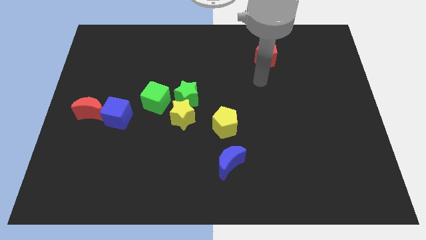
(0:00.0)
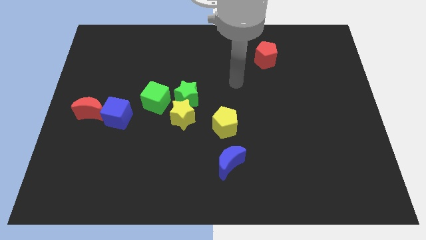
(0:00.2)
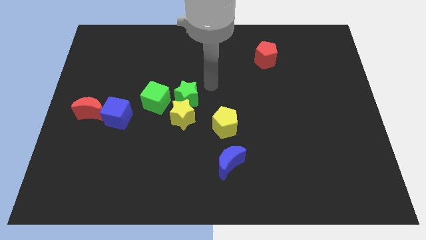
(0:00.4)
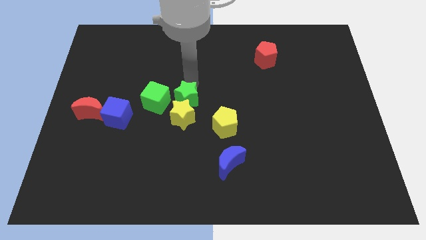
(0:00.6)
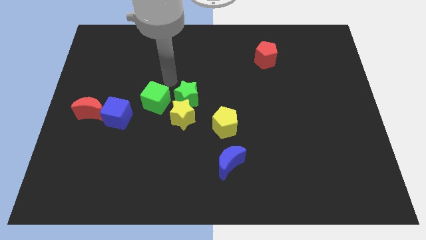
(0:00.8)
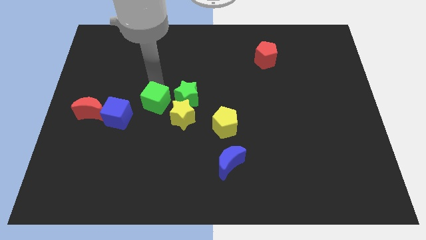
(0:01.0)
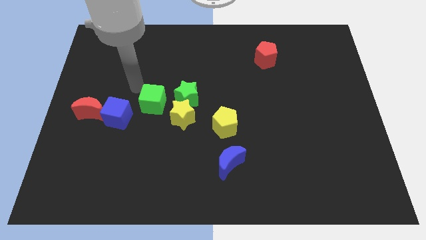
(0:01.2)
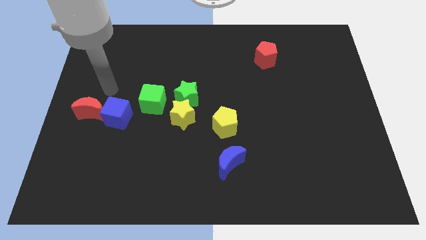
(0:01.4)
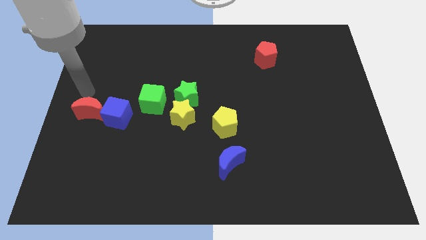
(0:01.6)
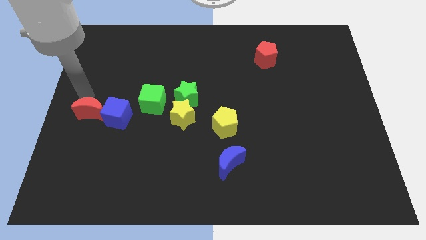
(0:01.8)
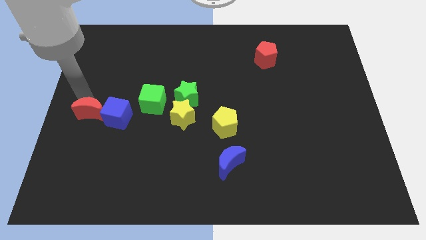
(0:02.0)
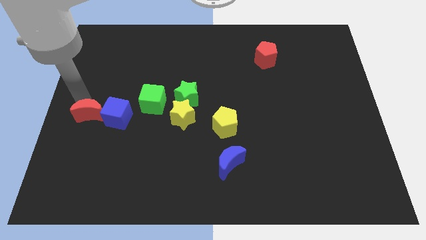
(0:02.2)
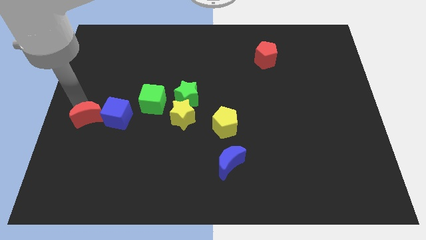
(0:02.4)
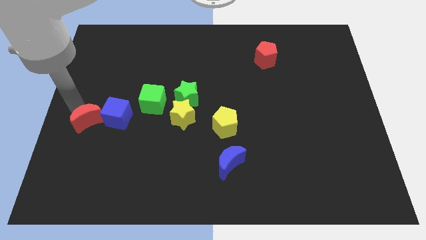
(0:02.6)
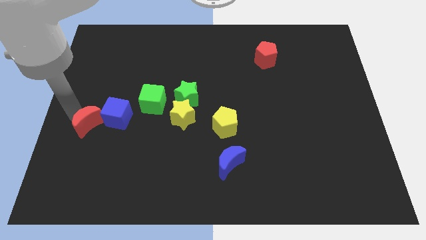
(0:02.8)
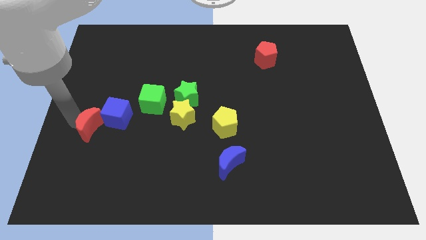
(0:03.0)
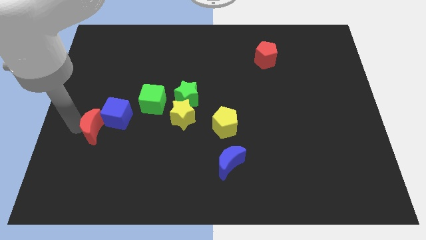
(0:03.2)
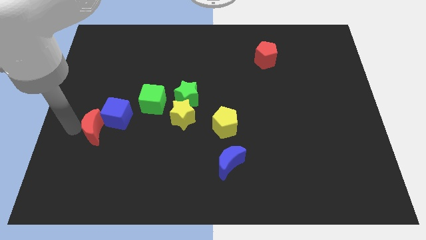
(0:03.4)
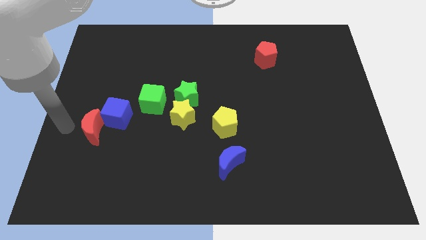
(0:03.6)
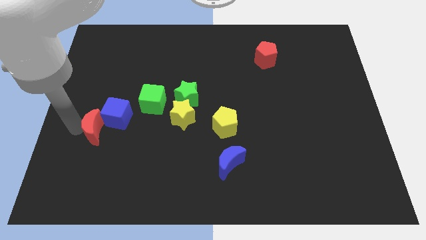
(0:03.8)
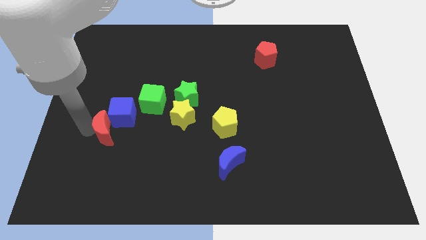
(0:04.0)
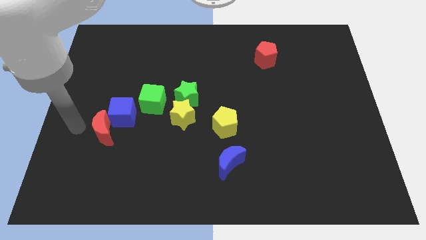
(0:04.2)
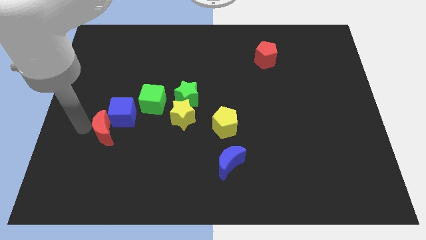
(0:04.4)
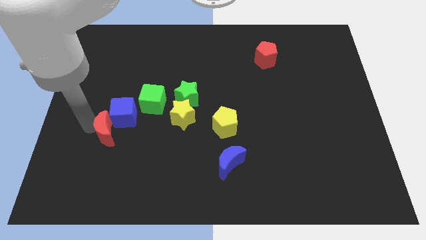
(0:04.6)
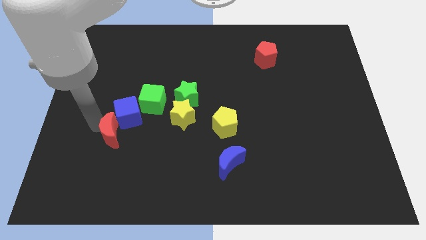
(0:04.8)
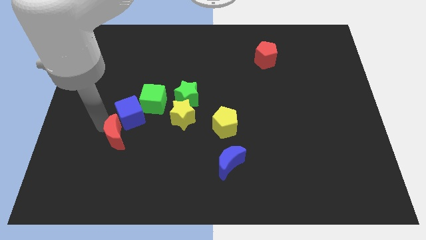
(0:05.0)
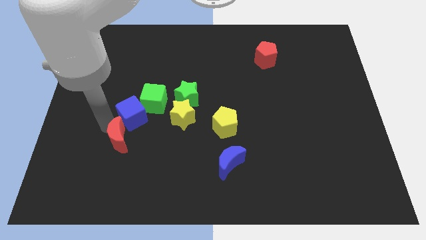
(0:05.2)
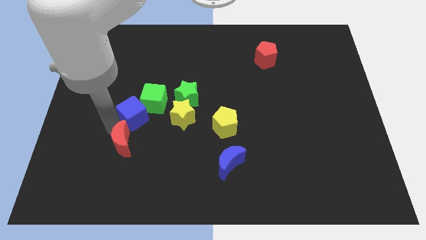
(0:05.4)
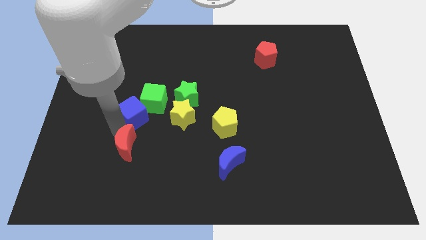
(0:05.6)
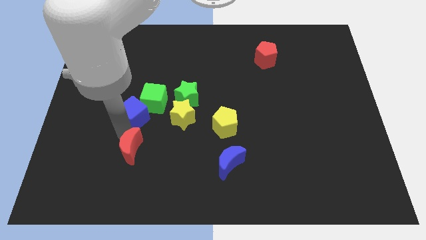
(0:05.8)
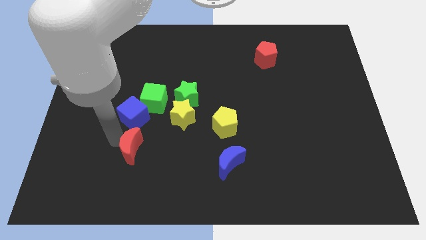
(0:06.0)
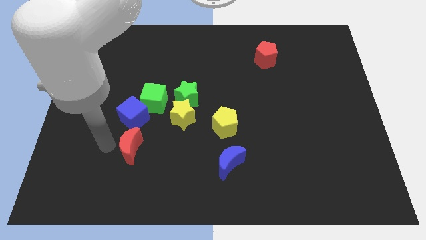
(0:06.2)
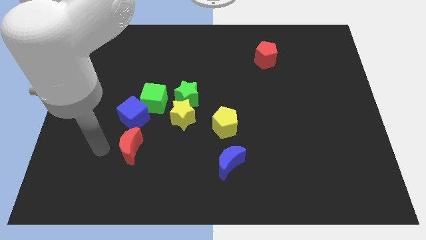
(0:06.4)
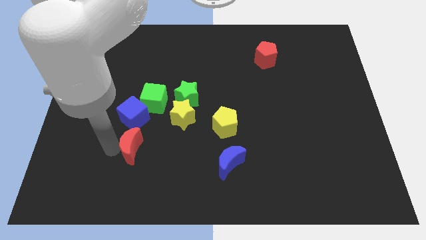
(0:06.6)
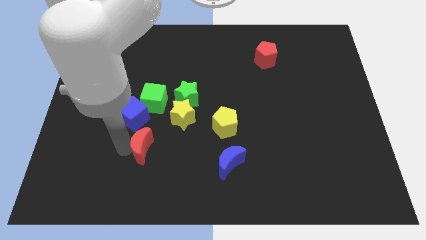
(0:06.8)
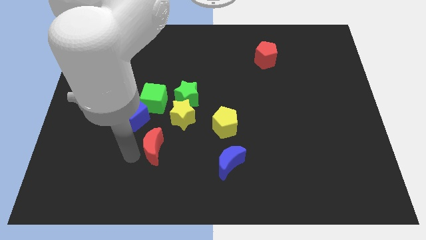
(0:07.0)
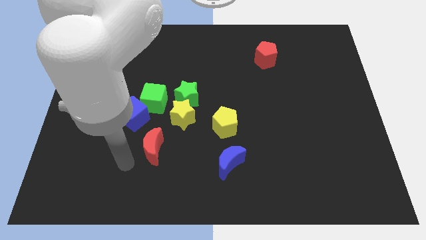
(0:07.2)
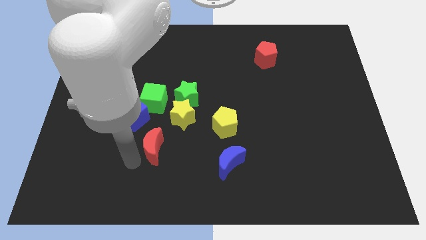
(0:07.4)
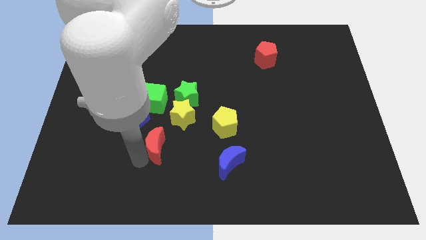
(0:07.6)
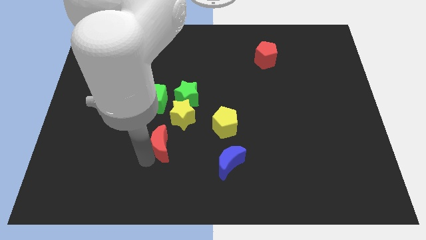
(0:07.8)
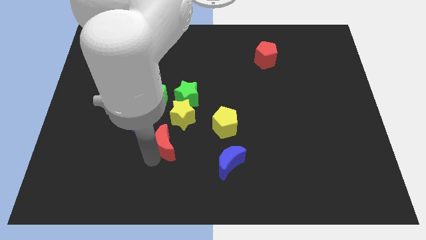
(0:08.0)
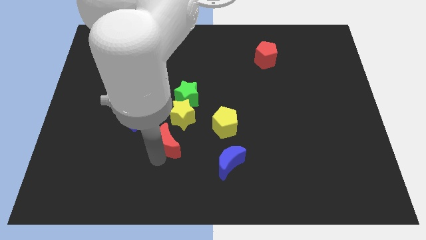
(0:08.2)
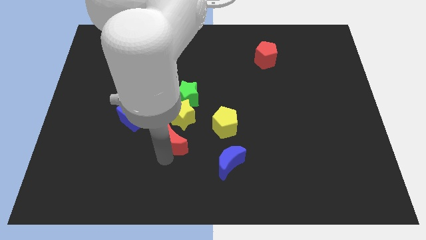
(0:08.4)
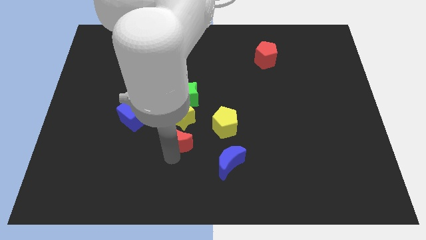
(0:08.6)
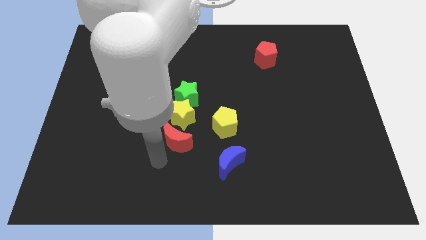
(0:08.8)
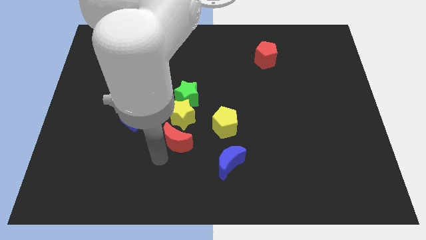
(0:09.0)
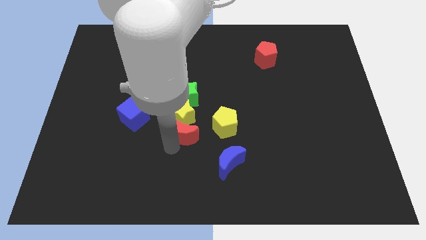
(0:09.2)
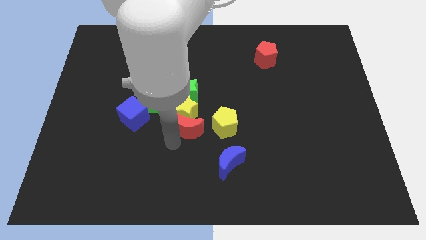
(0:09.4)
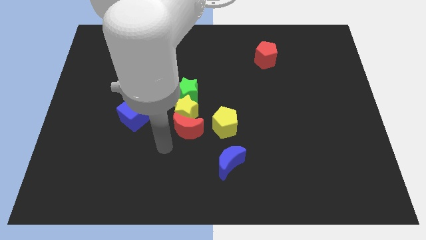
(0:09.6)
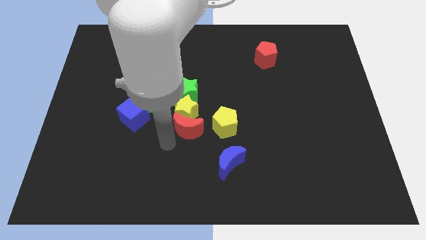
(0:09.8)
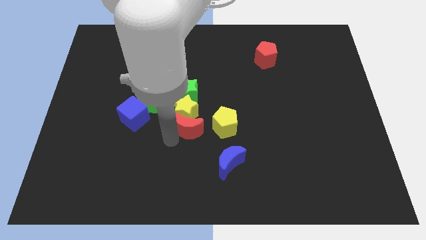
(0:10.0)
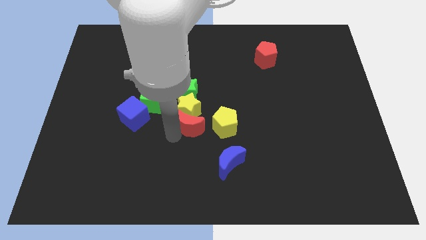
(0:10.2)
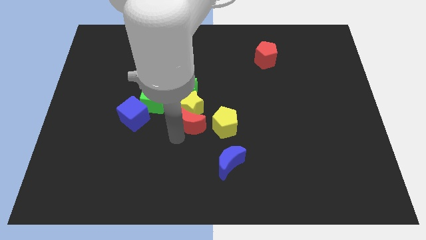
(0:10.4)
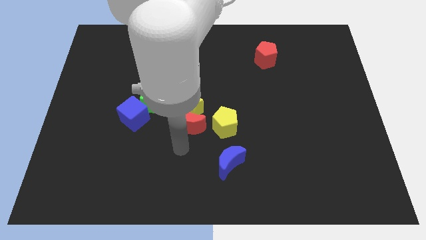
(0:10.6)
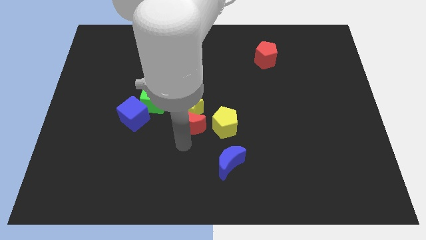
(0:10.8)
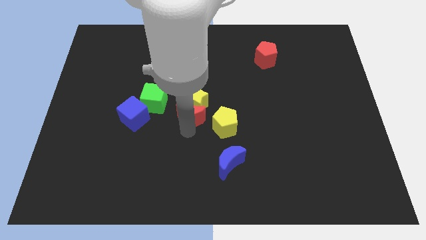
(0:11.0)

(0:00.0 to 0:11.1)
slide the red moon to the right side of the green cube

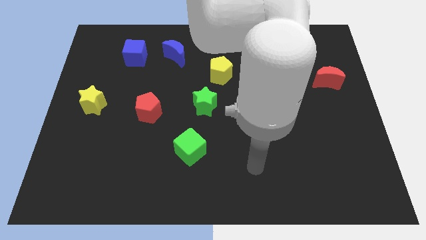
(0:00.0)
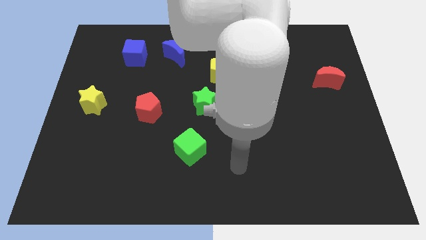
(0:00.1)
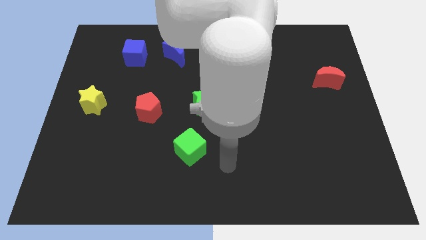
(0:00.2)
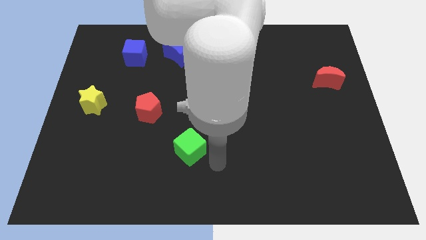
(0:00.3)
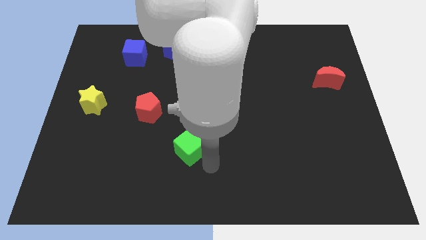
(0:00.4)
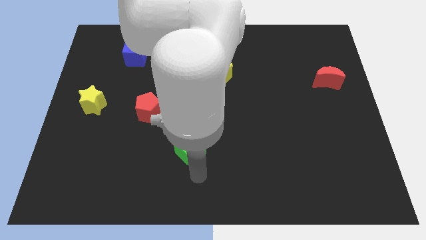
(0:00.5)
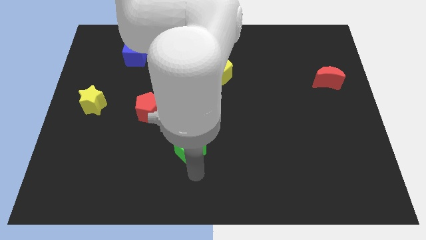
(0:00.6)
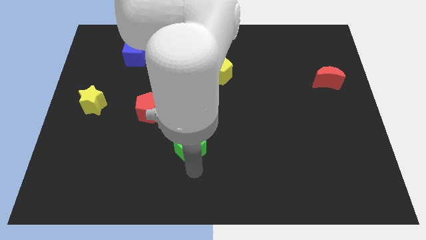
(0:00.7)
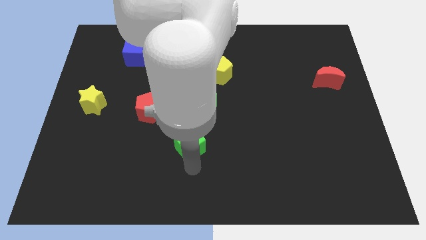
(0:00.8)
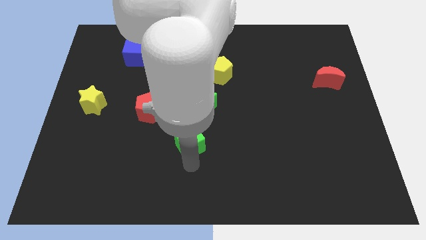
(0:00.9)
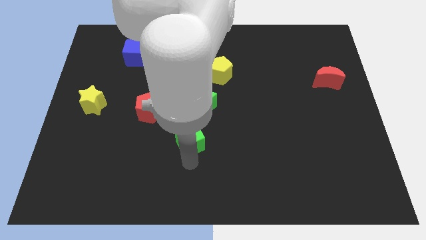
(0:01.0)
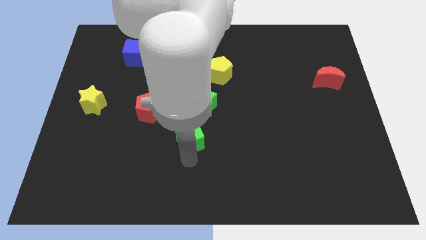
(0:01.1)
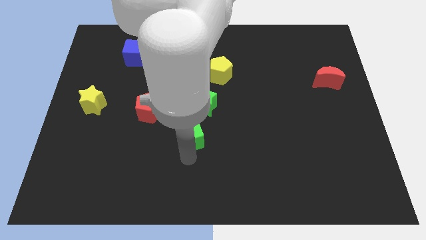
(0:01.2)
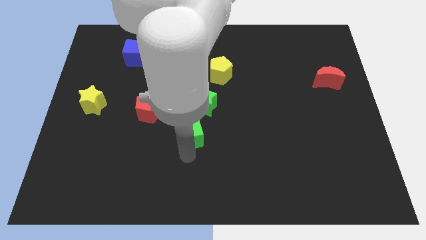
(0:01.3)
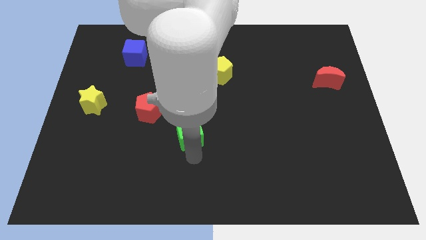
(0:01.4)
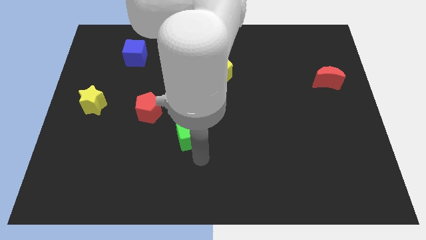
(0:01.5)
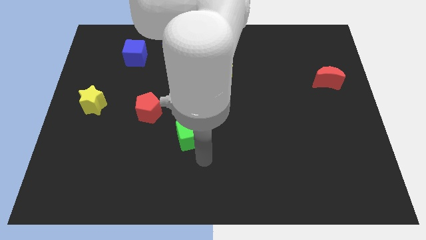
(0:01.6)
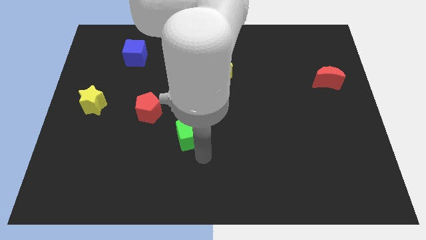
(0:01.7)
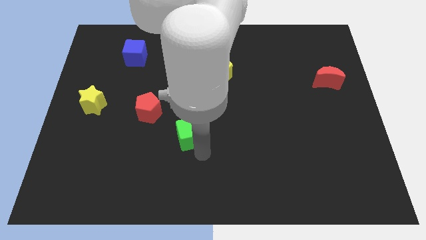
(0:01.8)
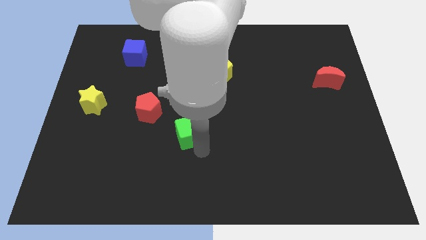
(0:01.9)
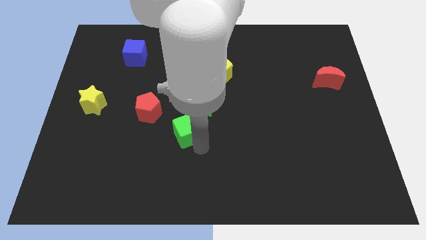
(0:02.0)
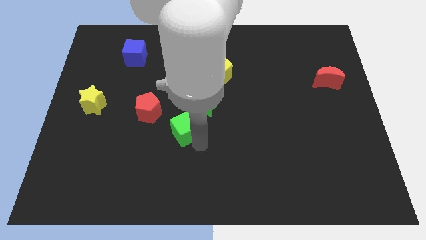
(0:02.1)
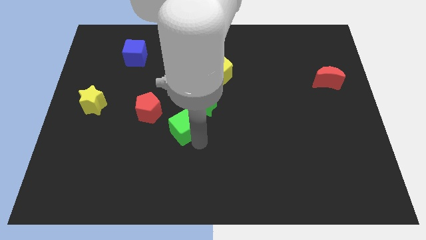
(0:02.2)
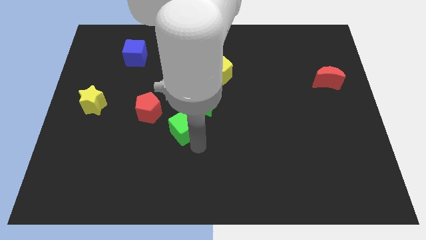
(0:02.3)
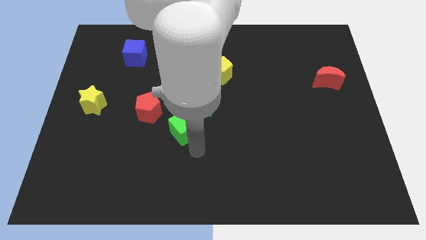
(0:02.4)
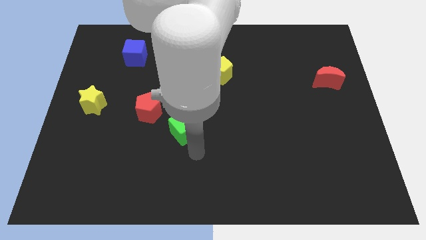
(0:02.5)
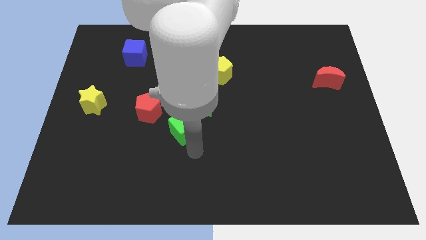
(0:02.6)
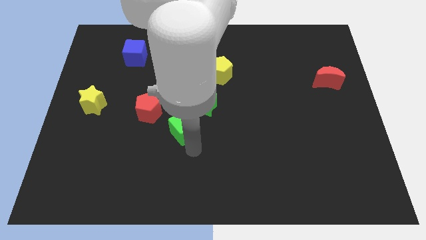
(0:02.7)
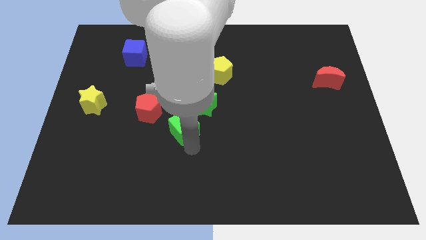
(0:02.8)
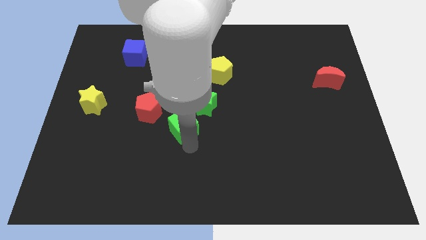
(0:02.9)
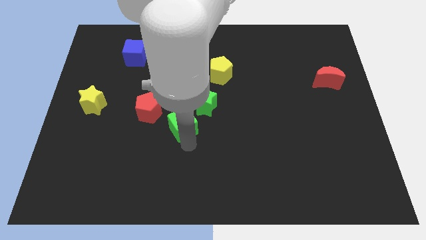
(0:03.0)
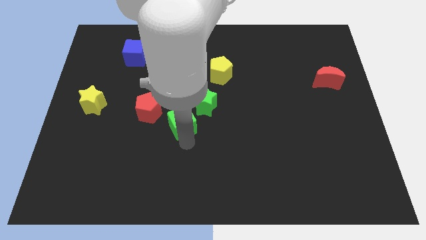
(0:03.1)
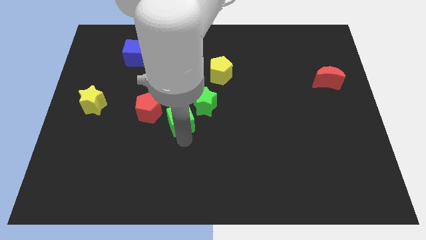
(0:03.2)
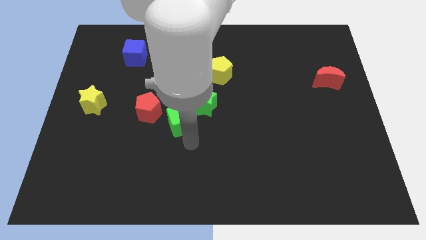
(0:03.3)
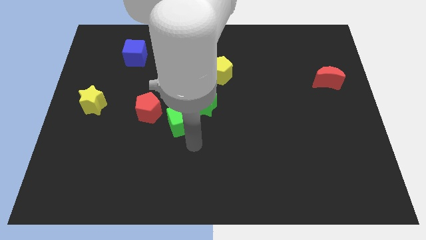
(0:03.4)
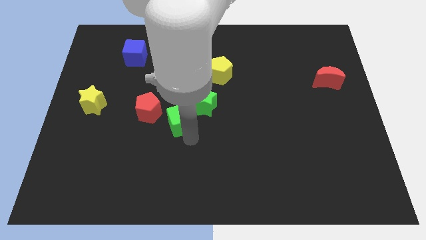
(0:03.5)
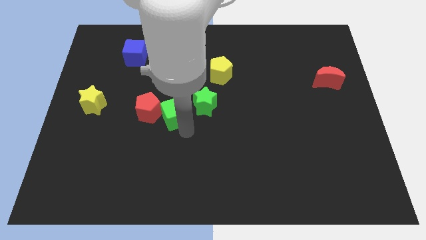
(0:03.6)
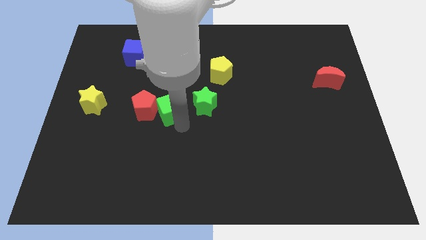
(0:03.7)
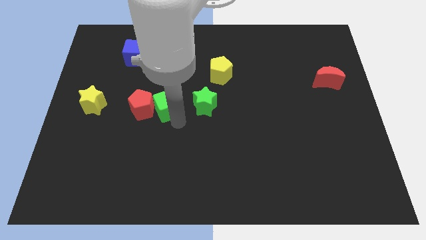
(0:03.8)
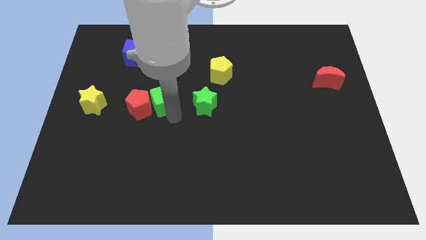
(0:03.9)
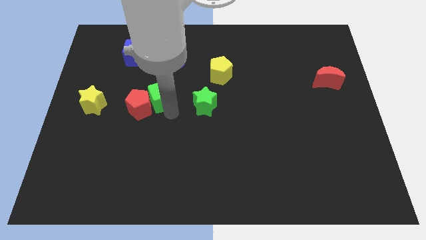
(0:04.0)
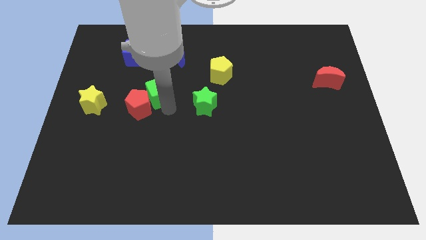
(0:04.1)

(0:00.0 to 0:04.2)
move the green cube to the top side of the red pentagon
